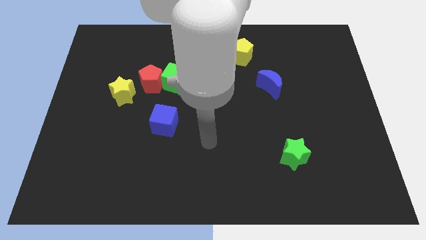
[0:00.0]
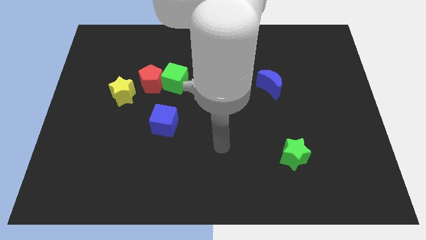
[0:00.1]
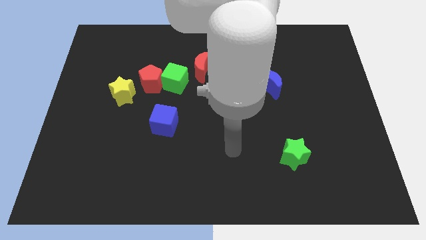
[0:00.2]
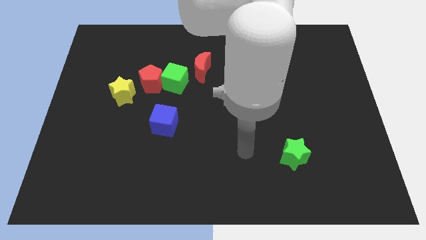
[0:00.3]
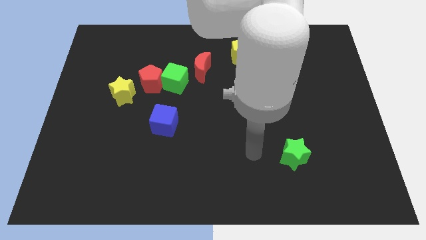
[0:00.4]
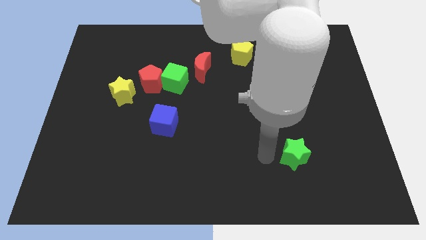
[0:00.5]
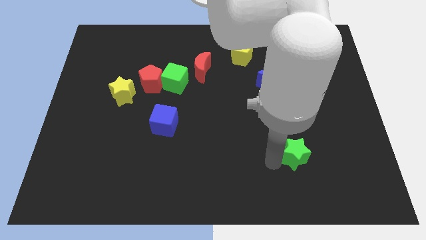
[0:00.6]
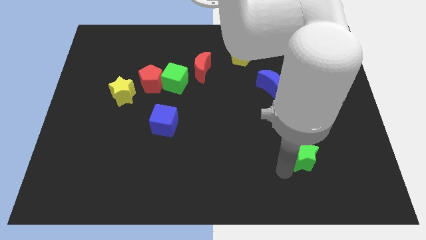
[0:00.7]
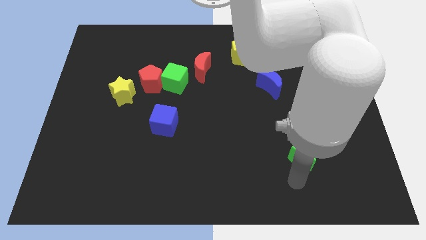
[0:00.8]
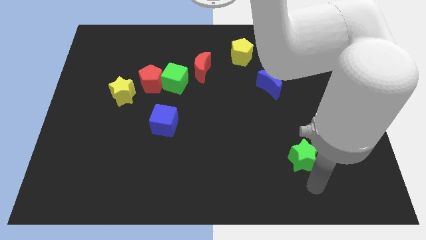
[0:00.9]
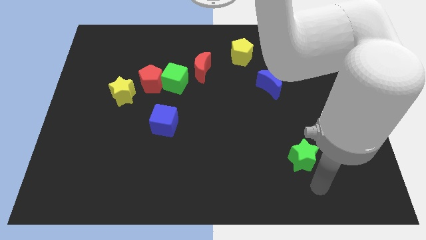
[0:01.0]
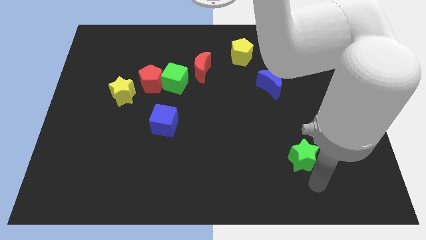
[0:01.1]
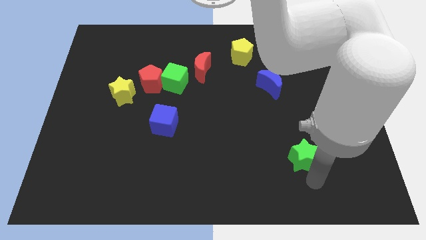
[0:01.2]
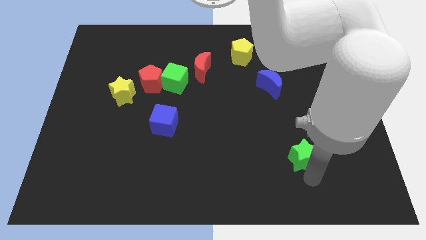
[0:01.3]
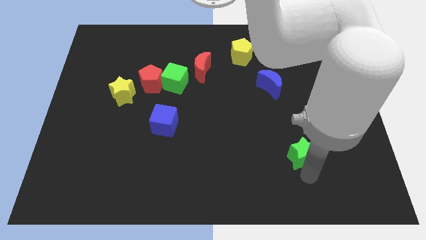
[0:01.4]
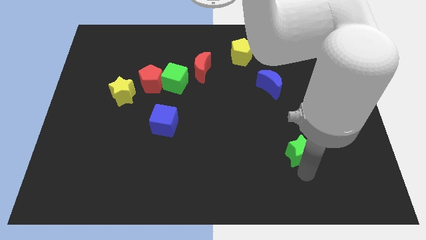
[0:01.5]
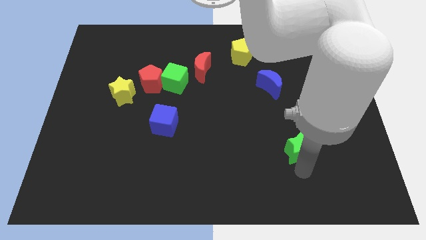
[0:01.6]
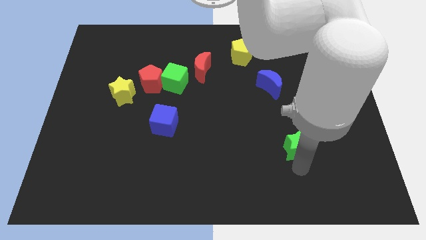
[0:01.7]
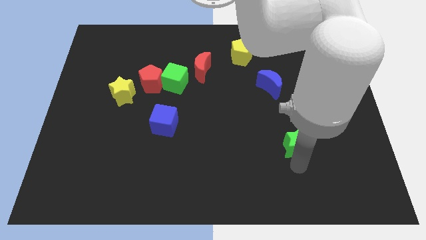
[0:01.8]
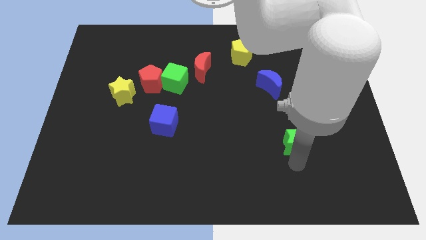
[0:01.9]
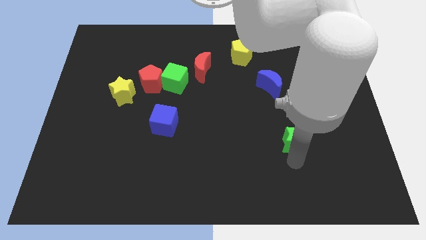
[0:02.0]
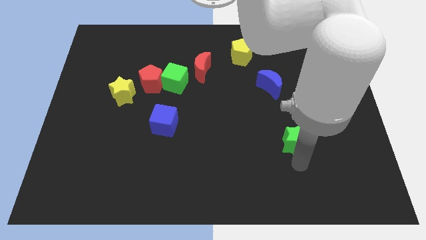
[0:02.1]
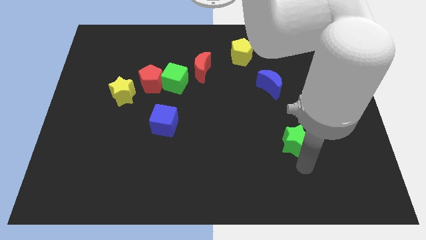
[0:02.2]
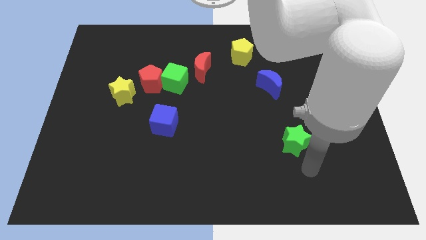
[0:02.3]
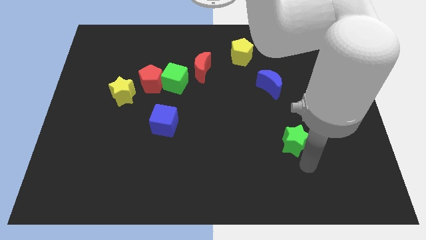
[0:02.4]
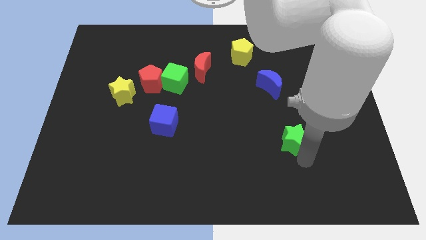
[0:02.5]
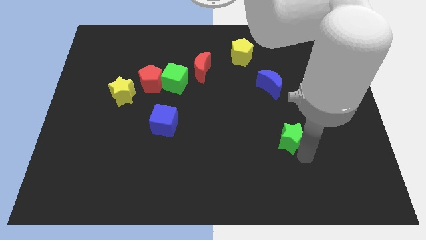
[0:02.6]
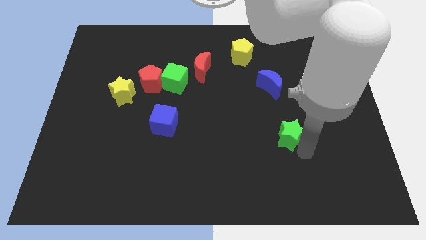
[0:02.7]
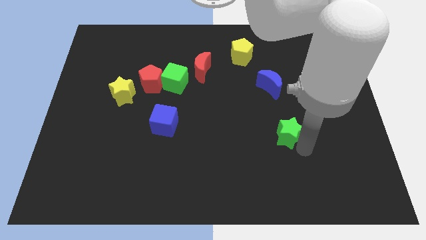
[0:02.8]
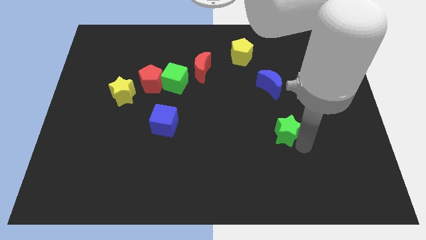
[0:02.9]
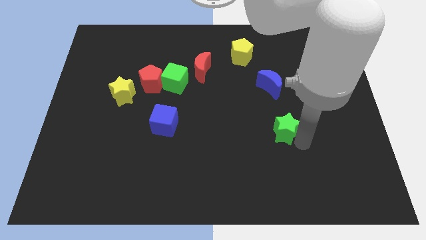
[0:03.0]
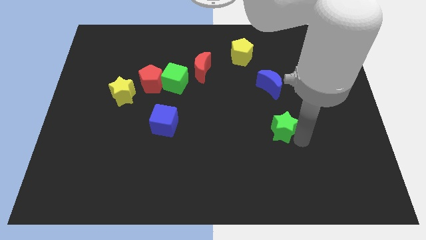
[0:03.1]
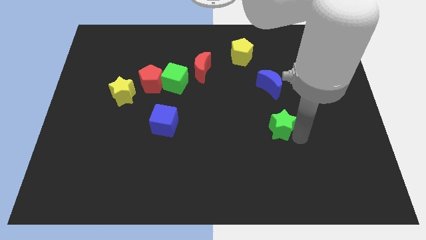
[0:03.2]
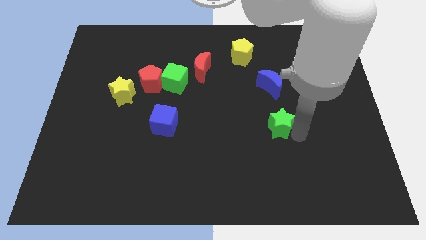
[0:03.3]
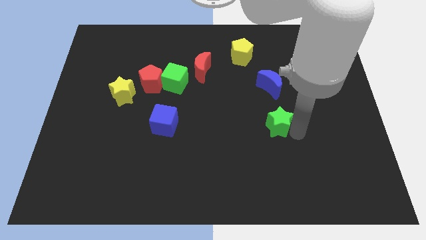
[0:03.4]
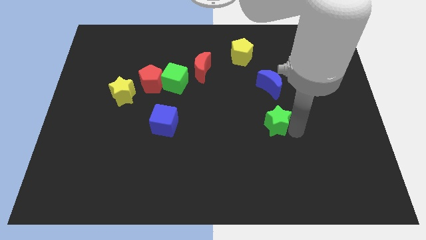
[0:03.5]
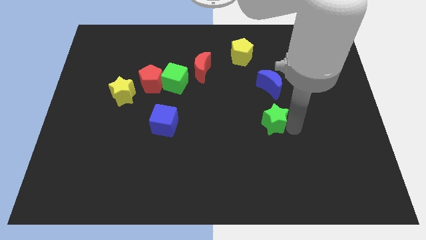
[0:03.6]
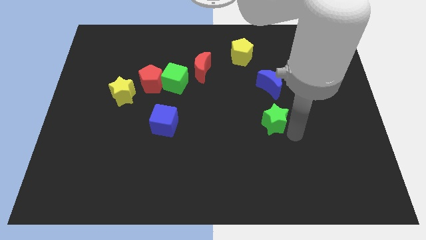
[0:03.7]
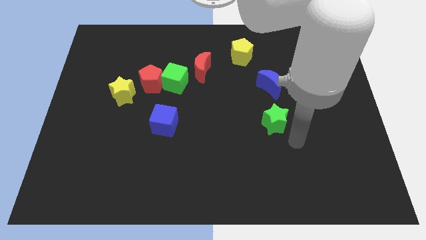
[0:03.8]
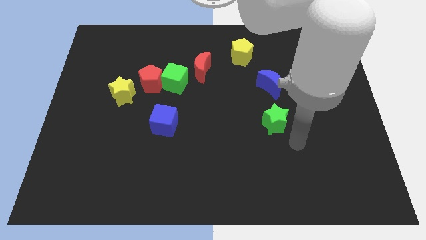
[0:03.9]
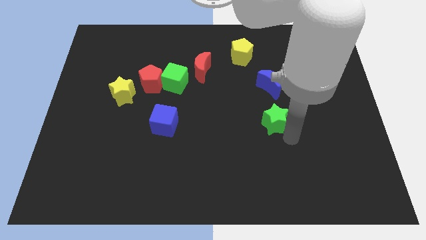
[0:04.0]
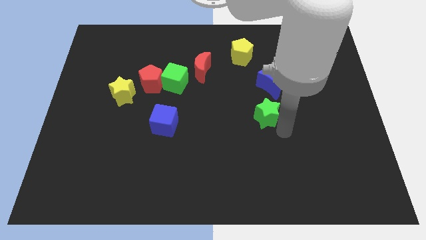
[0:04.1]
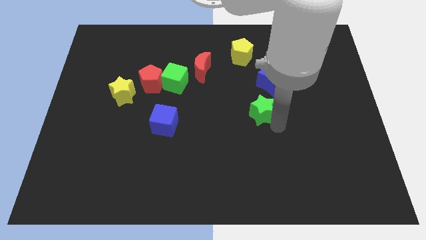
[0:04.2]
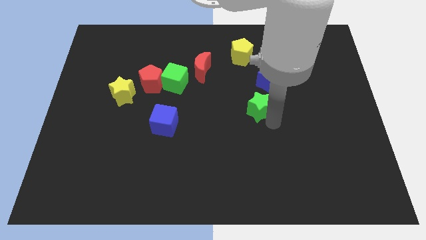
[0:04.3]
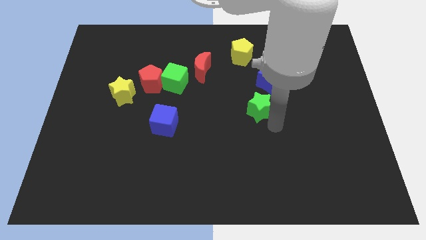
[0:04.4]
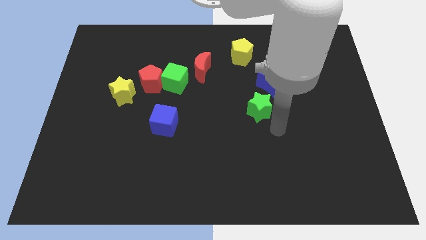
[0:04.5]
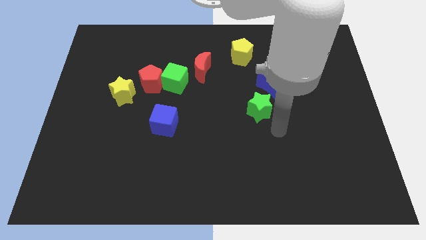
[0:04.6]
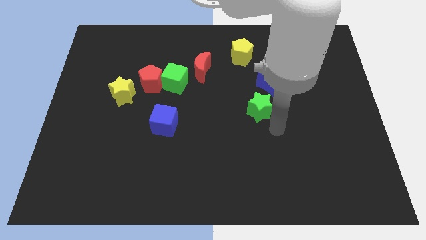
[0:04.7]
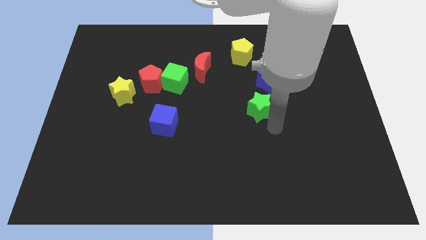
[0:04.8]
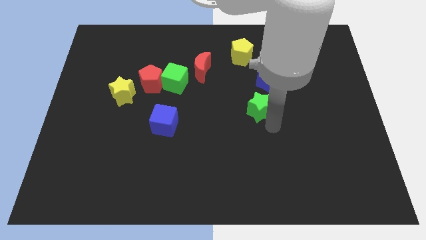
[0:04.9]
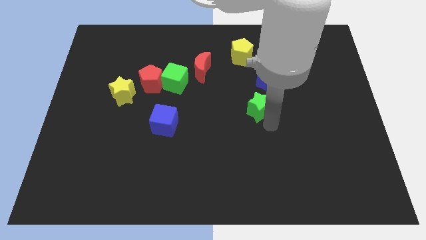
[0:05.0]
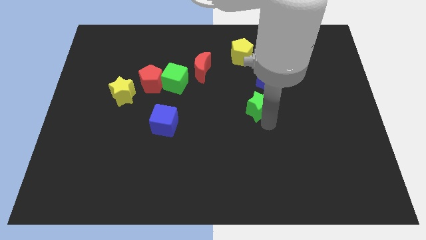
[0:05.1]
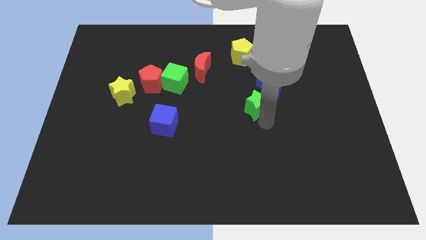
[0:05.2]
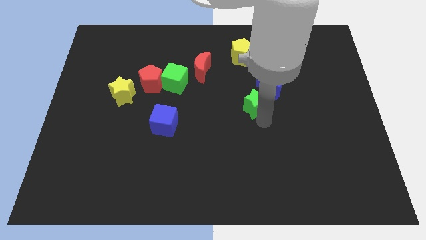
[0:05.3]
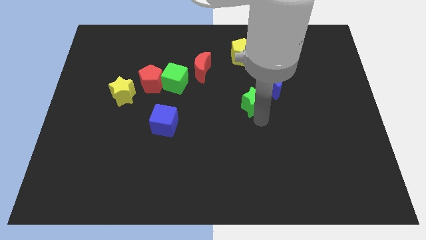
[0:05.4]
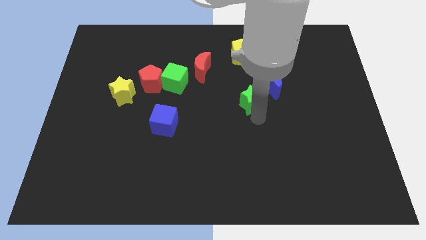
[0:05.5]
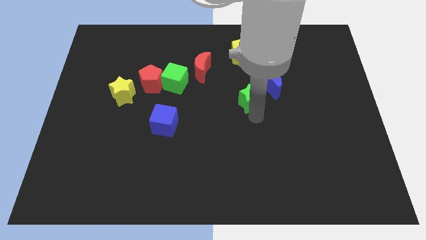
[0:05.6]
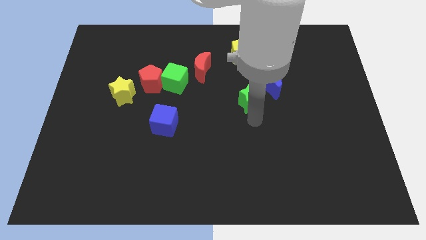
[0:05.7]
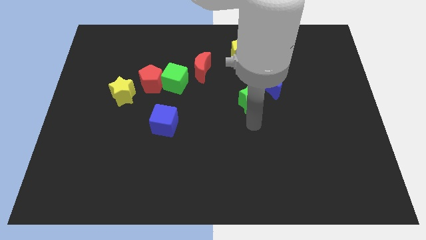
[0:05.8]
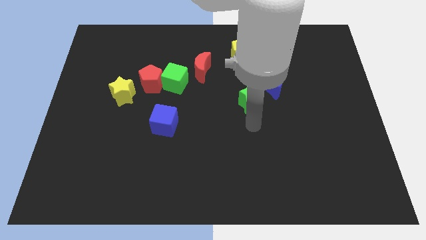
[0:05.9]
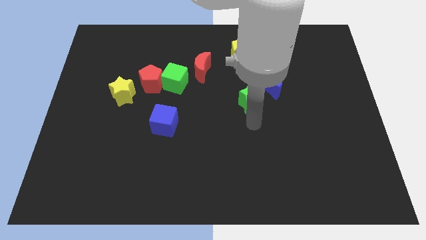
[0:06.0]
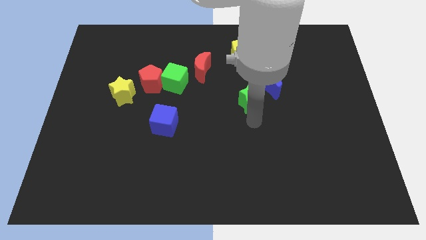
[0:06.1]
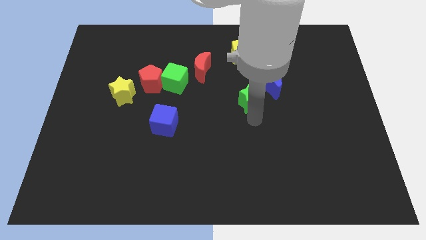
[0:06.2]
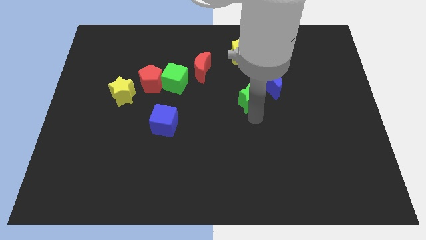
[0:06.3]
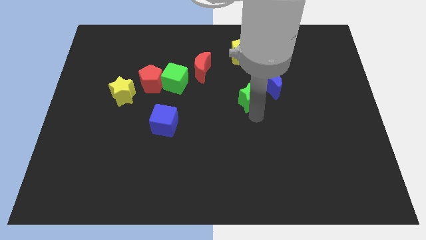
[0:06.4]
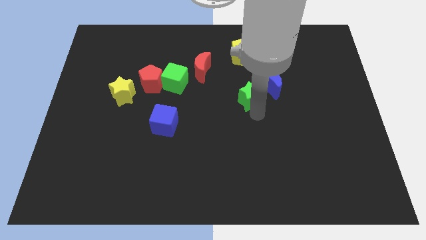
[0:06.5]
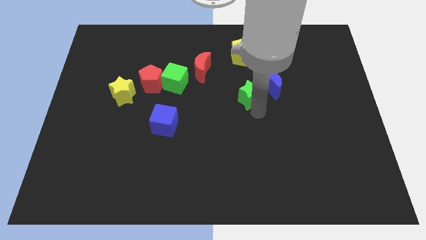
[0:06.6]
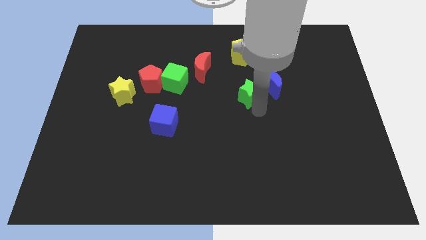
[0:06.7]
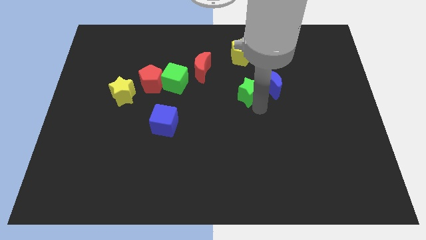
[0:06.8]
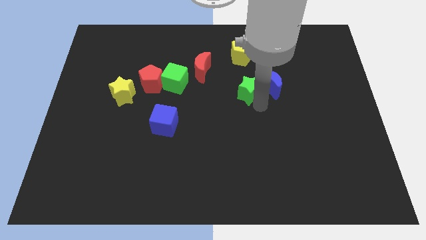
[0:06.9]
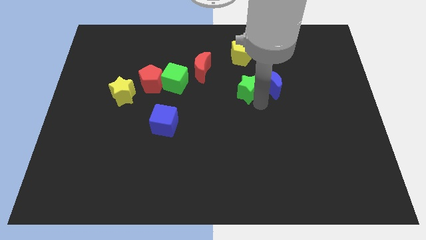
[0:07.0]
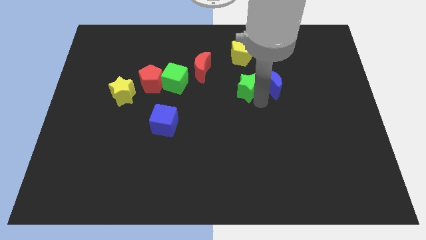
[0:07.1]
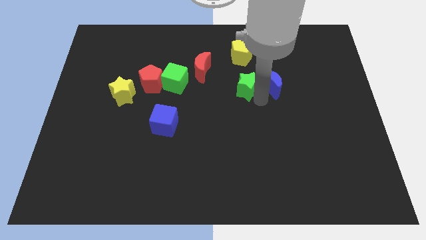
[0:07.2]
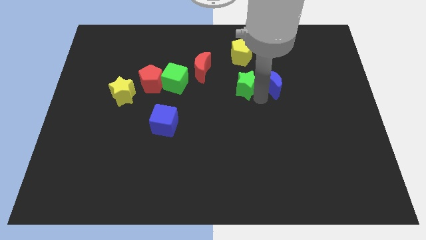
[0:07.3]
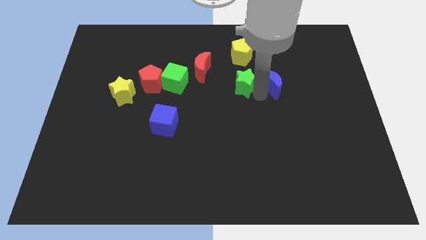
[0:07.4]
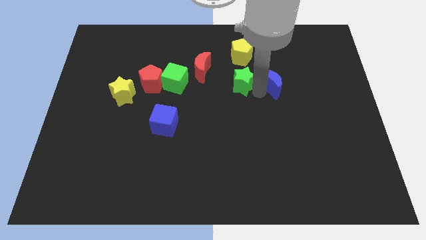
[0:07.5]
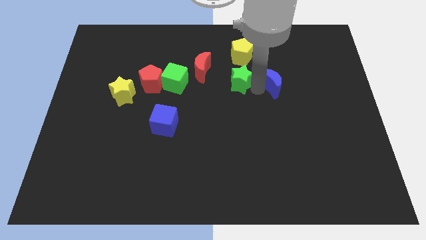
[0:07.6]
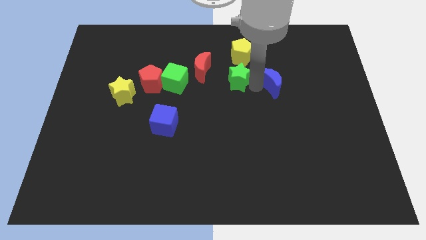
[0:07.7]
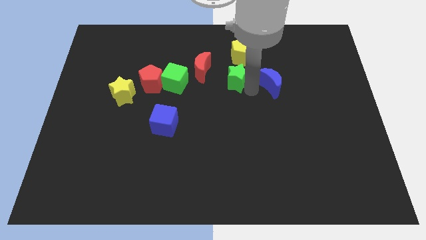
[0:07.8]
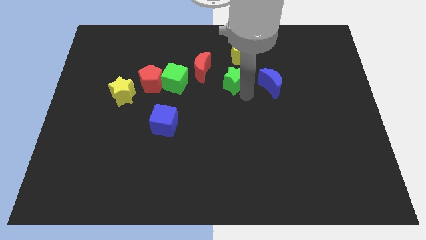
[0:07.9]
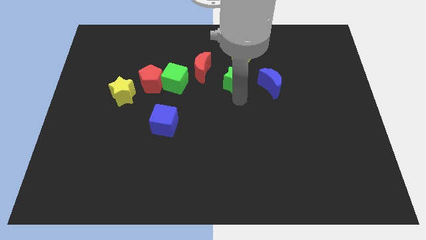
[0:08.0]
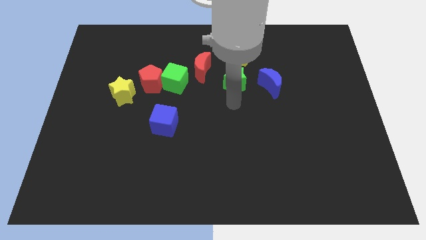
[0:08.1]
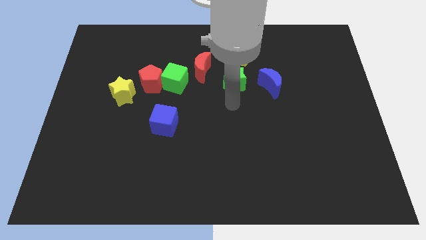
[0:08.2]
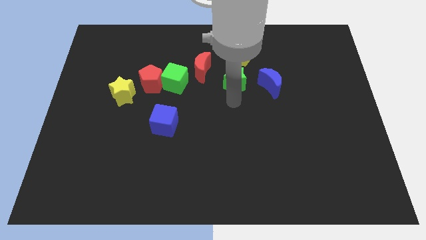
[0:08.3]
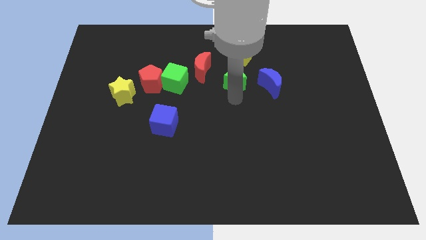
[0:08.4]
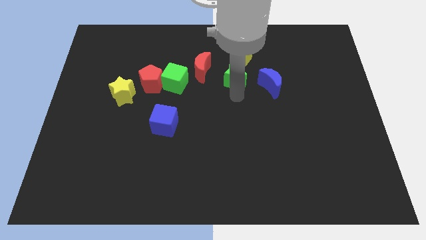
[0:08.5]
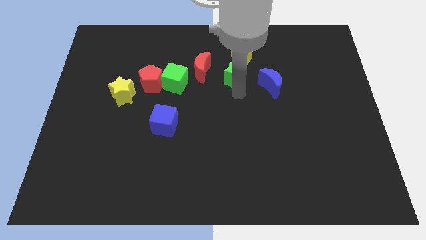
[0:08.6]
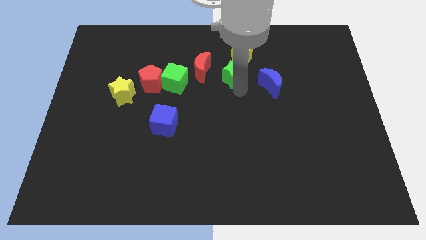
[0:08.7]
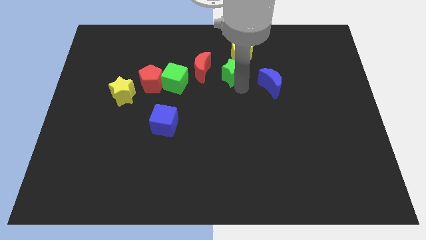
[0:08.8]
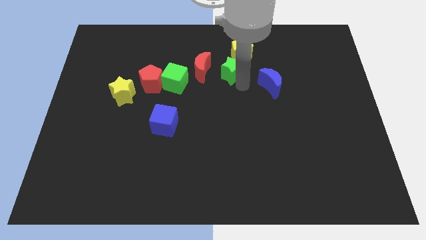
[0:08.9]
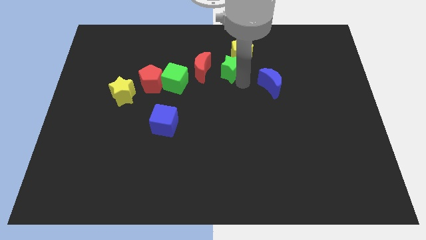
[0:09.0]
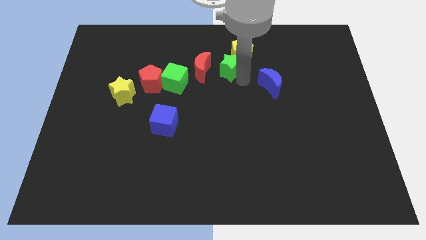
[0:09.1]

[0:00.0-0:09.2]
move the green star close to the yellow pentagon
